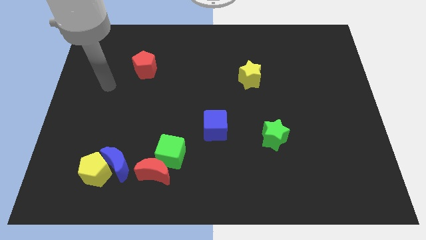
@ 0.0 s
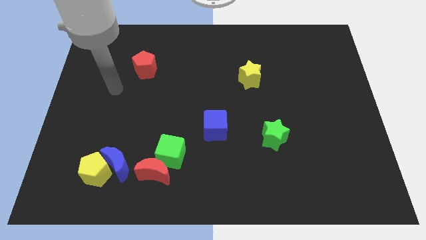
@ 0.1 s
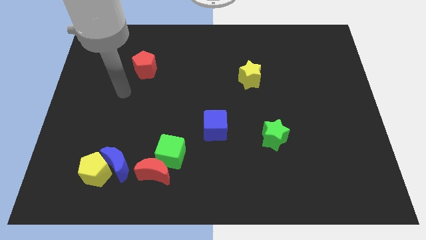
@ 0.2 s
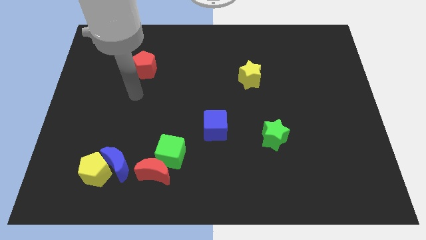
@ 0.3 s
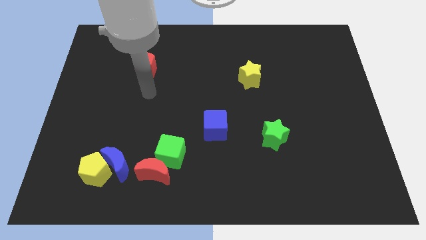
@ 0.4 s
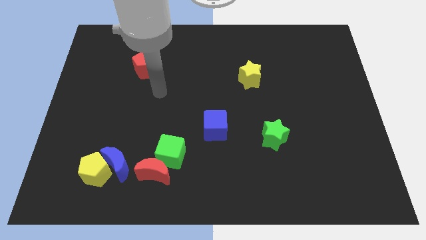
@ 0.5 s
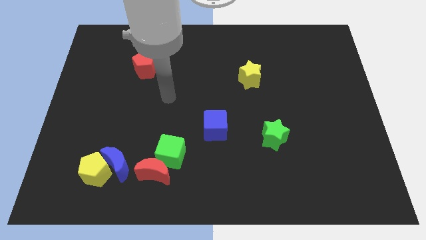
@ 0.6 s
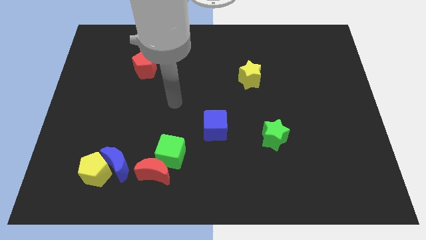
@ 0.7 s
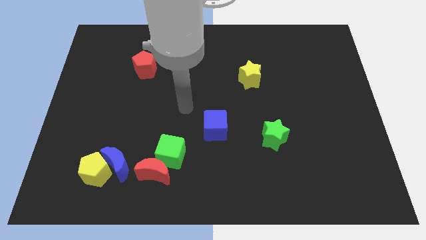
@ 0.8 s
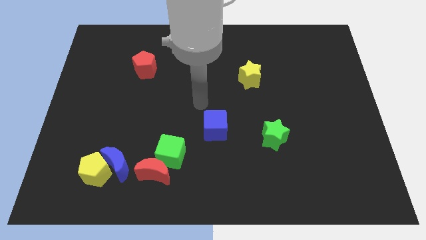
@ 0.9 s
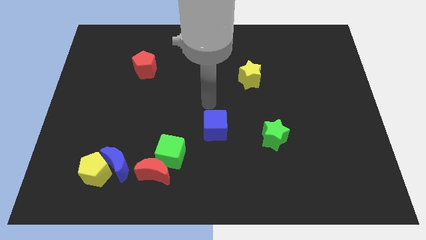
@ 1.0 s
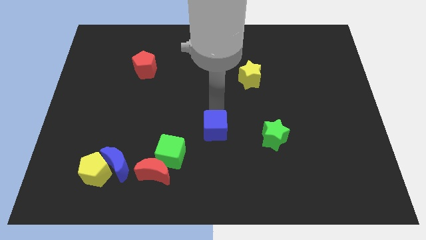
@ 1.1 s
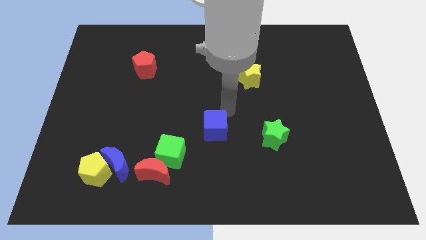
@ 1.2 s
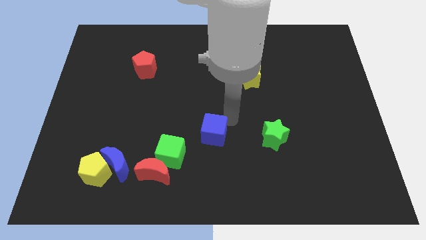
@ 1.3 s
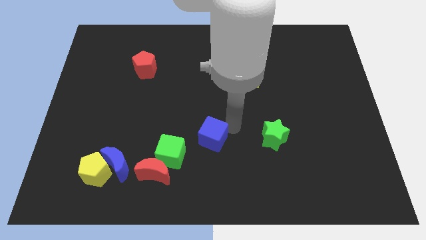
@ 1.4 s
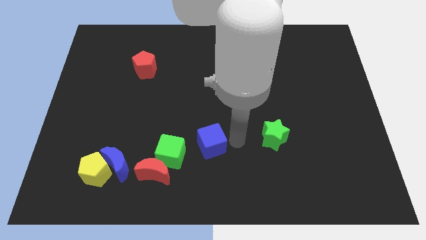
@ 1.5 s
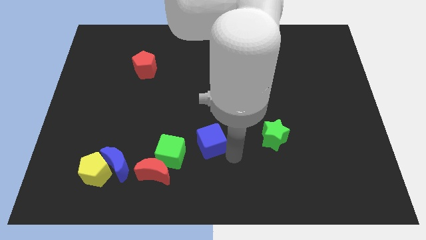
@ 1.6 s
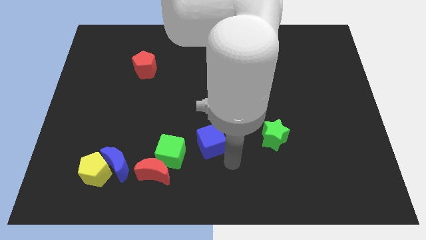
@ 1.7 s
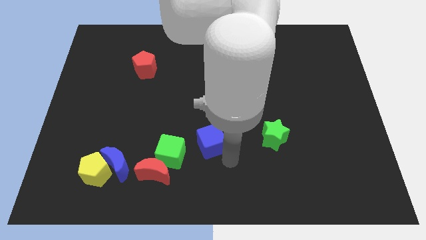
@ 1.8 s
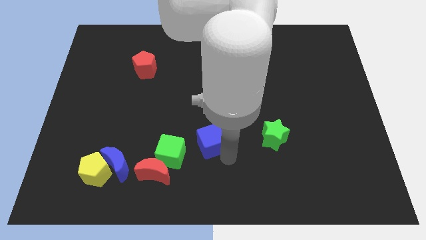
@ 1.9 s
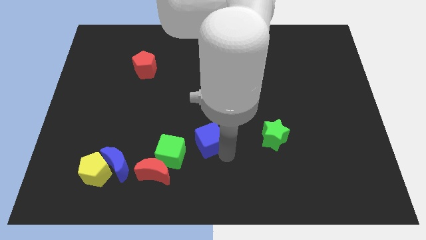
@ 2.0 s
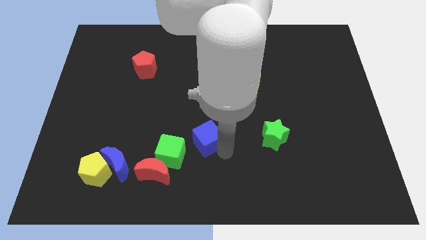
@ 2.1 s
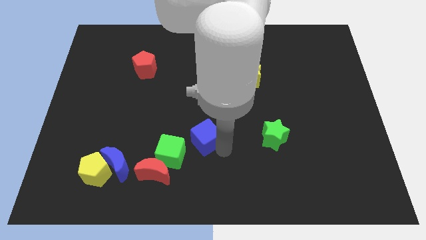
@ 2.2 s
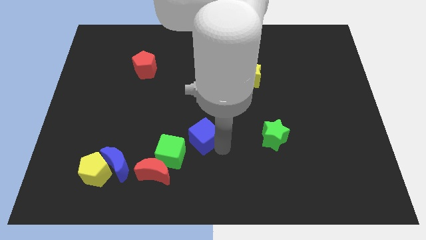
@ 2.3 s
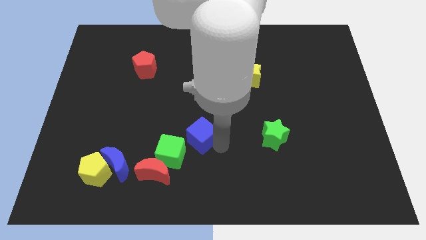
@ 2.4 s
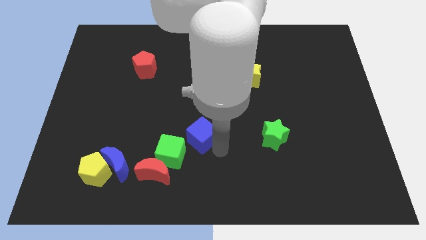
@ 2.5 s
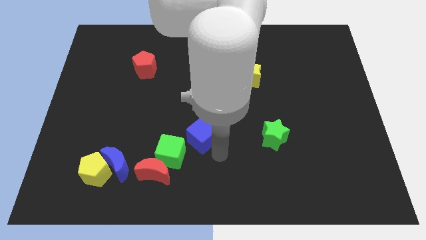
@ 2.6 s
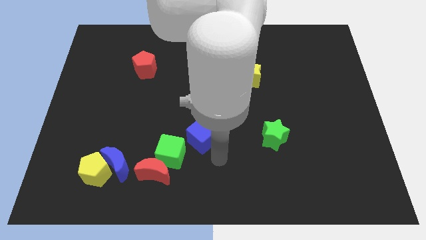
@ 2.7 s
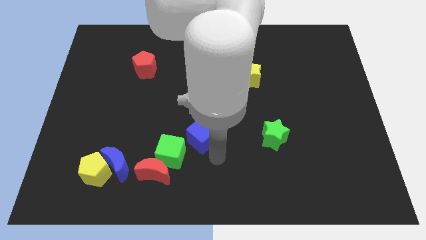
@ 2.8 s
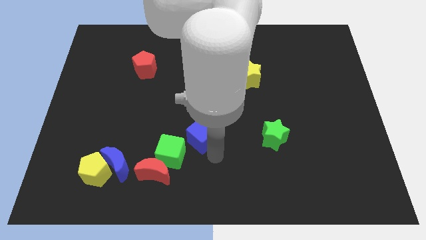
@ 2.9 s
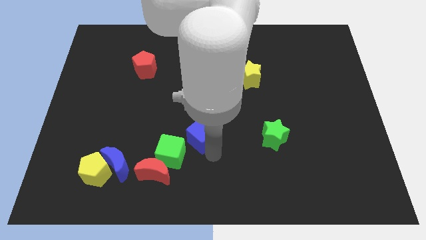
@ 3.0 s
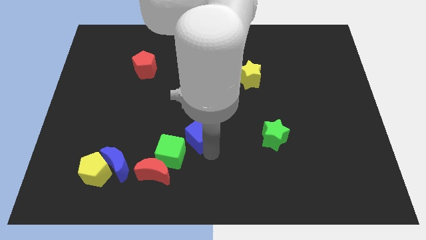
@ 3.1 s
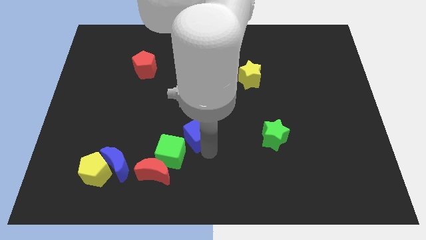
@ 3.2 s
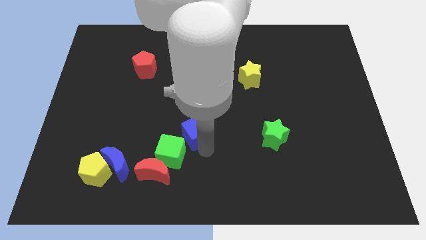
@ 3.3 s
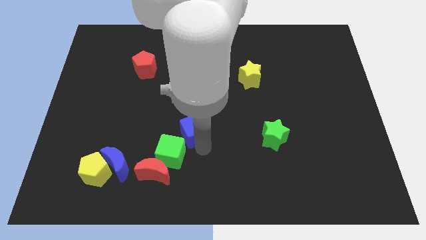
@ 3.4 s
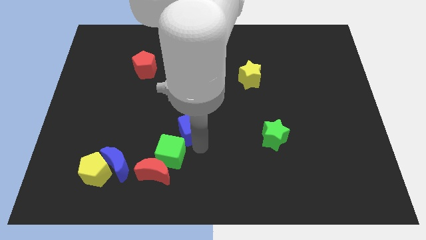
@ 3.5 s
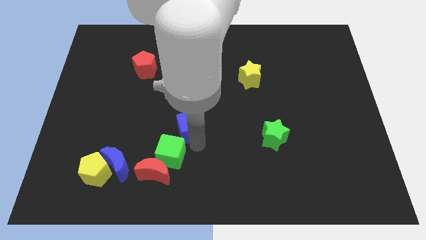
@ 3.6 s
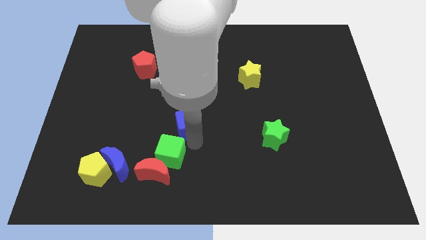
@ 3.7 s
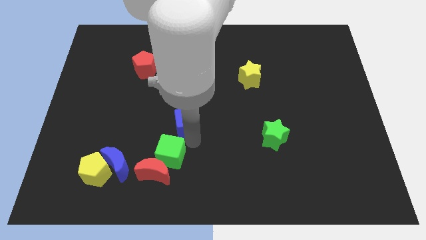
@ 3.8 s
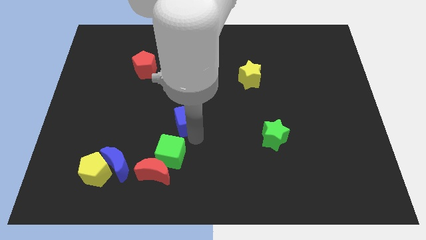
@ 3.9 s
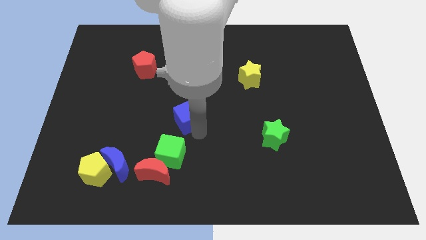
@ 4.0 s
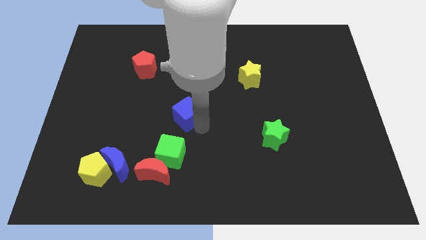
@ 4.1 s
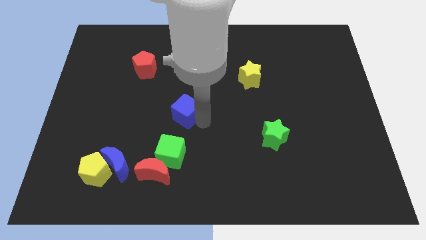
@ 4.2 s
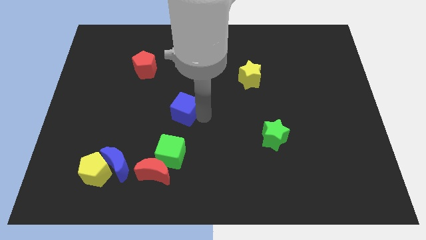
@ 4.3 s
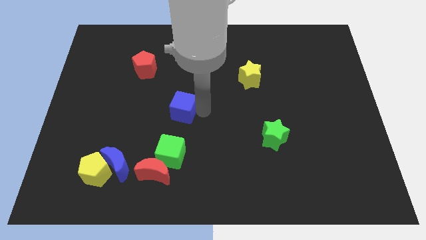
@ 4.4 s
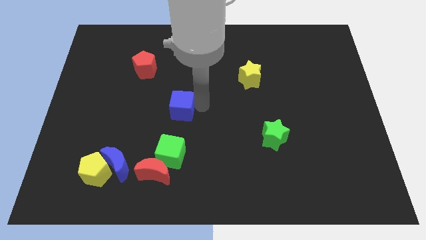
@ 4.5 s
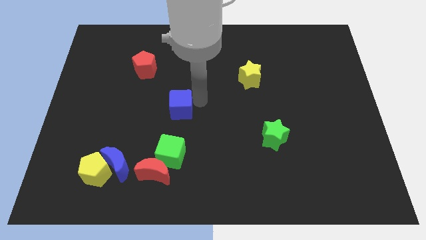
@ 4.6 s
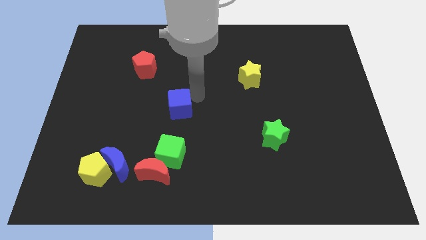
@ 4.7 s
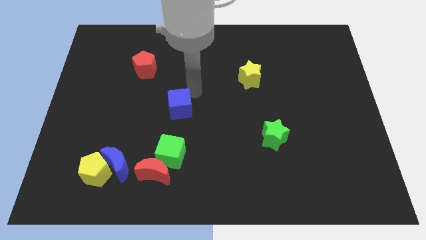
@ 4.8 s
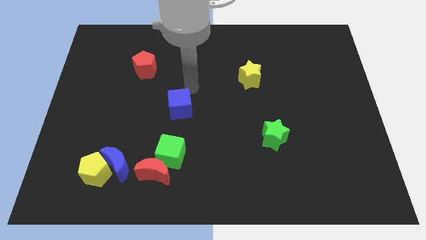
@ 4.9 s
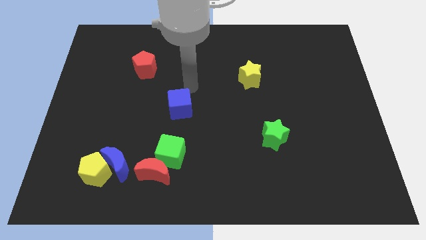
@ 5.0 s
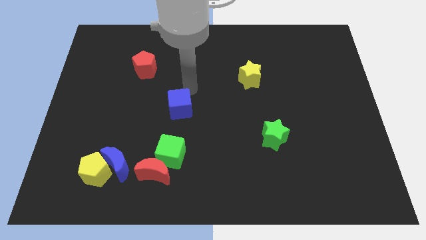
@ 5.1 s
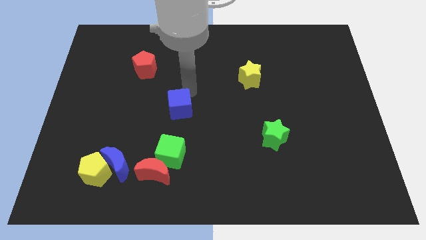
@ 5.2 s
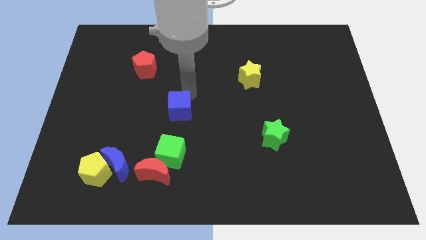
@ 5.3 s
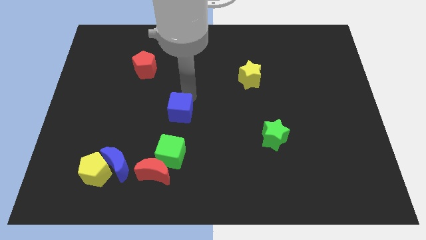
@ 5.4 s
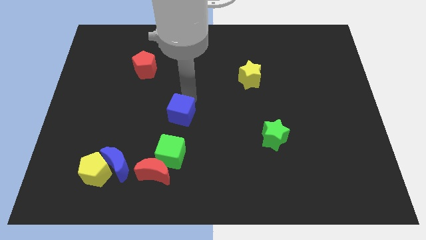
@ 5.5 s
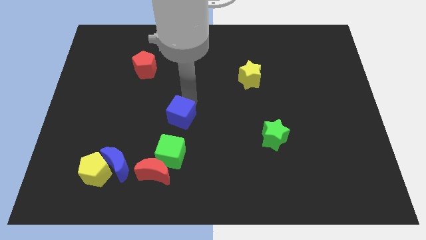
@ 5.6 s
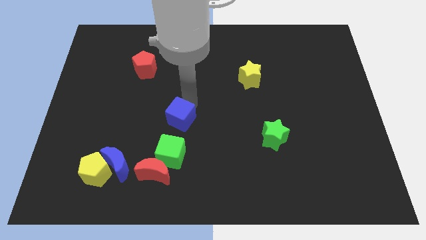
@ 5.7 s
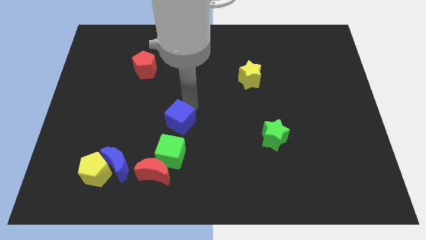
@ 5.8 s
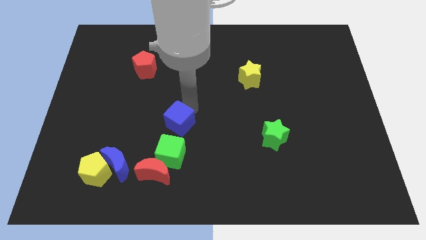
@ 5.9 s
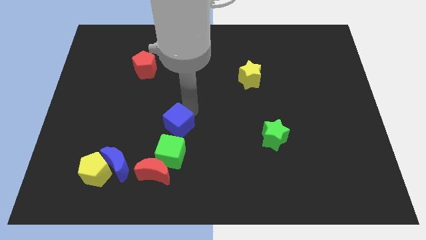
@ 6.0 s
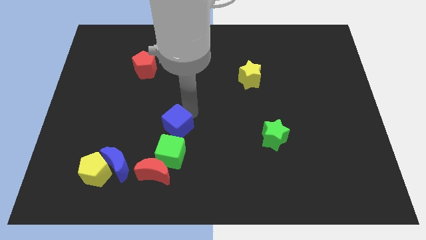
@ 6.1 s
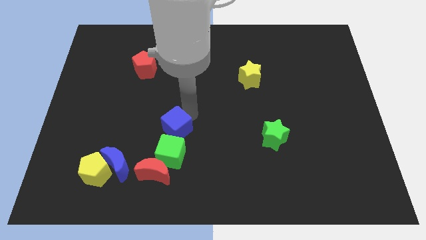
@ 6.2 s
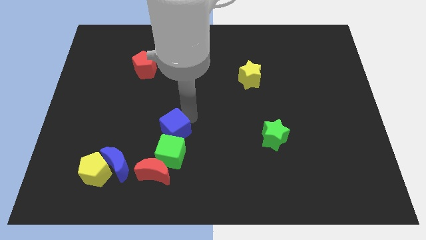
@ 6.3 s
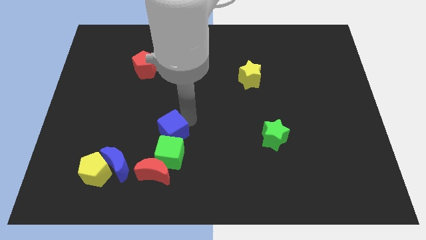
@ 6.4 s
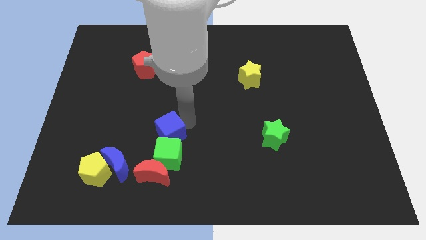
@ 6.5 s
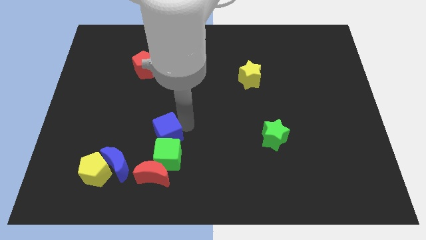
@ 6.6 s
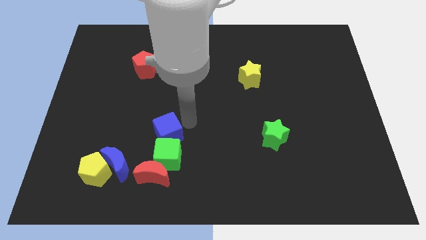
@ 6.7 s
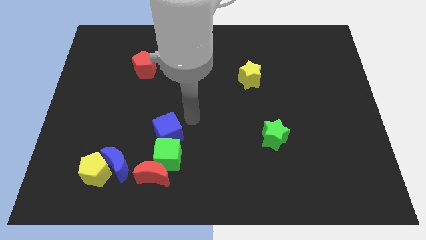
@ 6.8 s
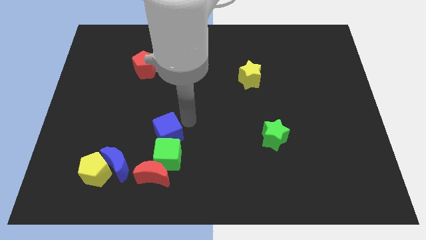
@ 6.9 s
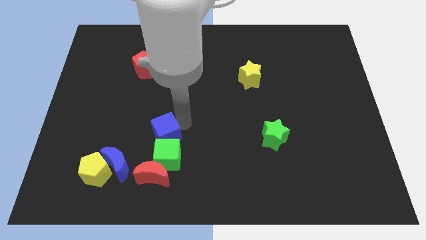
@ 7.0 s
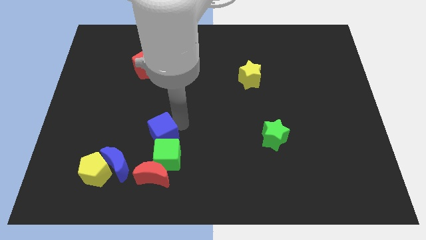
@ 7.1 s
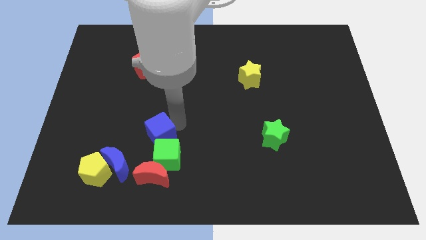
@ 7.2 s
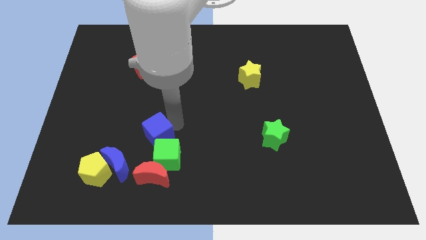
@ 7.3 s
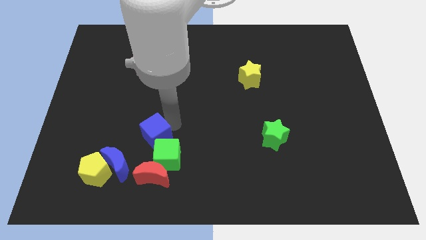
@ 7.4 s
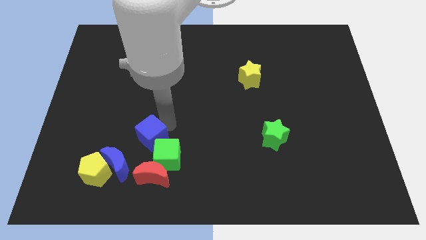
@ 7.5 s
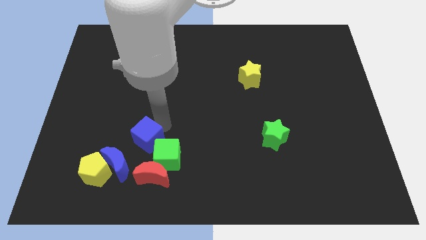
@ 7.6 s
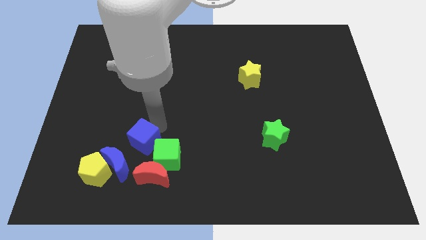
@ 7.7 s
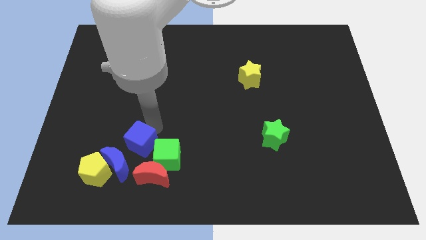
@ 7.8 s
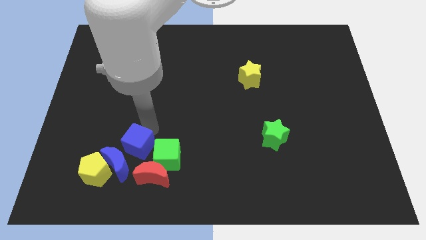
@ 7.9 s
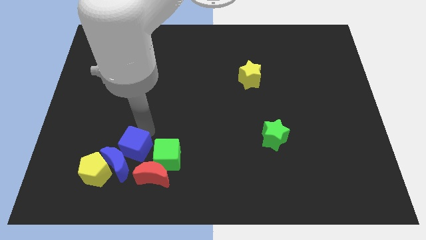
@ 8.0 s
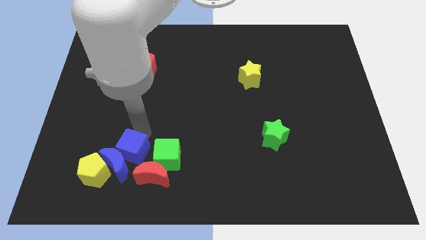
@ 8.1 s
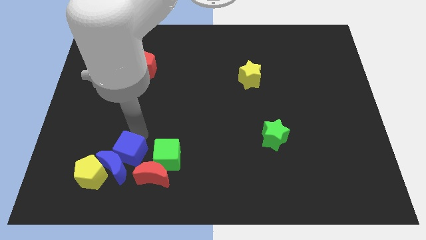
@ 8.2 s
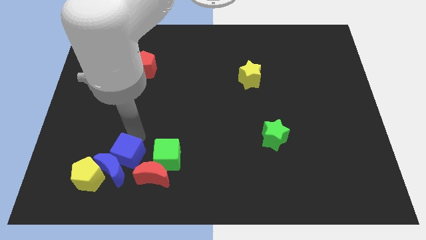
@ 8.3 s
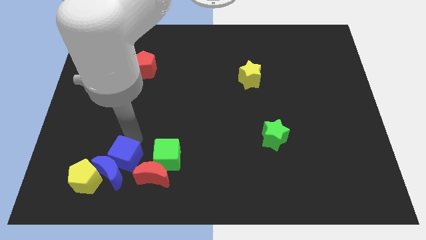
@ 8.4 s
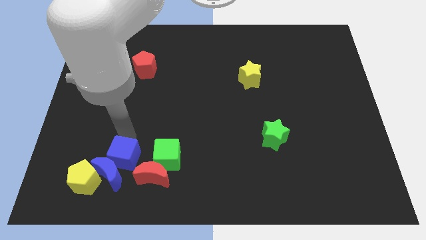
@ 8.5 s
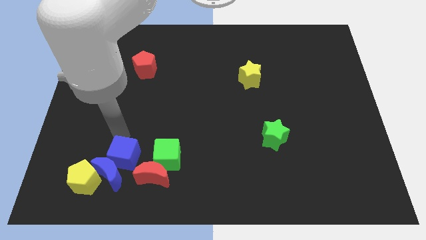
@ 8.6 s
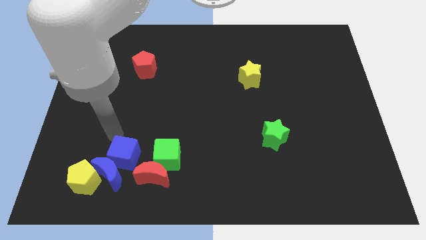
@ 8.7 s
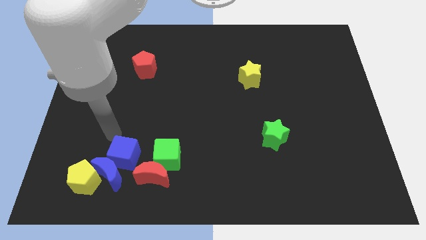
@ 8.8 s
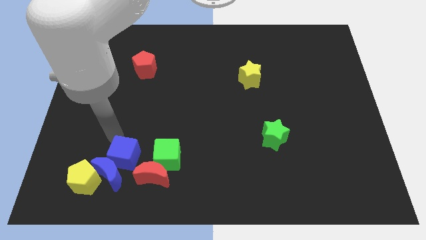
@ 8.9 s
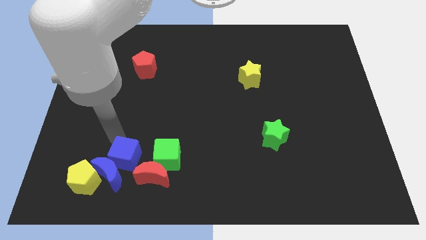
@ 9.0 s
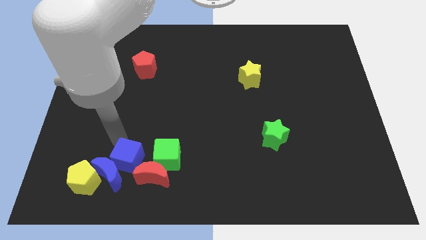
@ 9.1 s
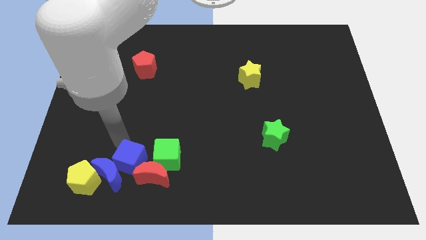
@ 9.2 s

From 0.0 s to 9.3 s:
move the blue cube to the bottom left of the green cube
